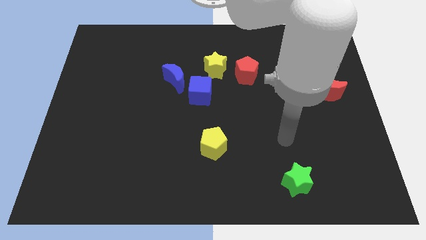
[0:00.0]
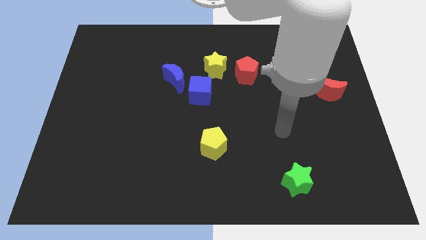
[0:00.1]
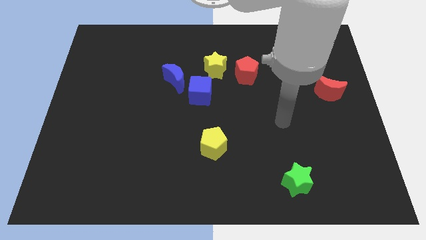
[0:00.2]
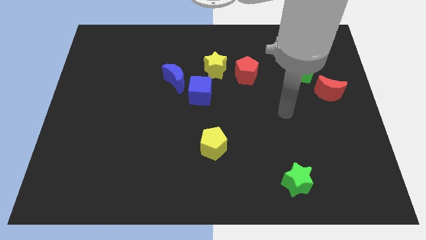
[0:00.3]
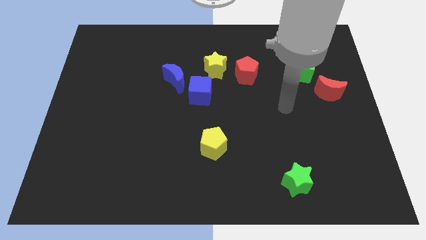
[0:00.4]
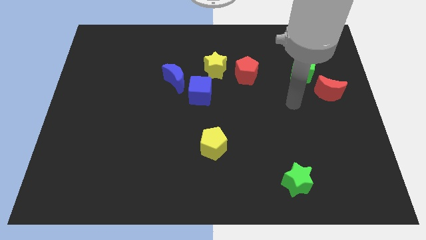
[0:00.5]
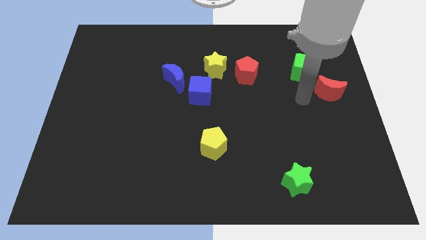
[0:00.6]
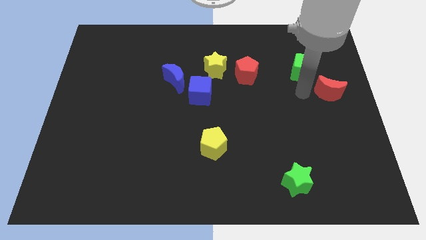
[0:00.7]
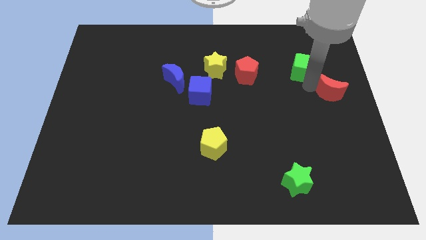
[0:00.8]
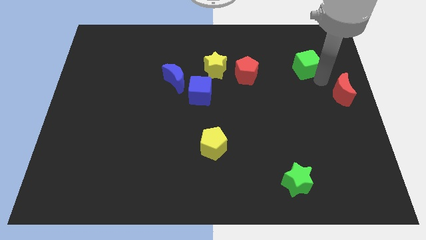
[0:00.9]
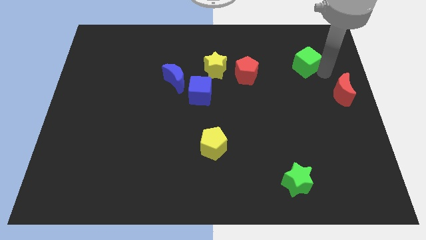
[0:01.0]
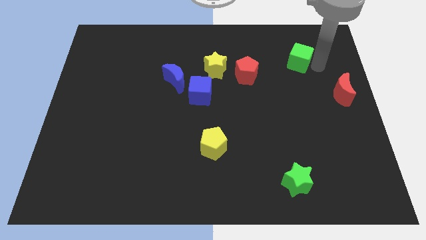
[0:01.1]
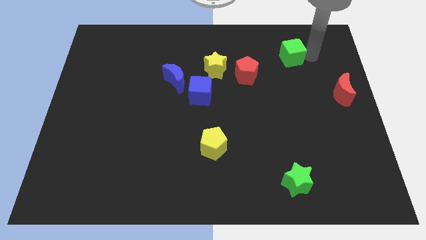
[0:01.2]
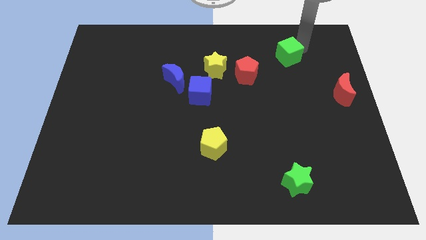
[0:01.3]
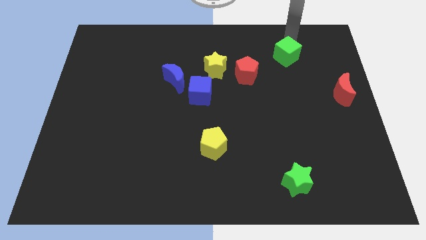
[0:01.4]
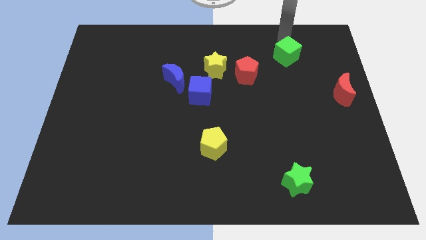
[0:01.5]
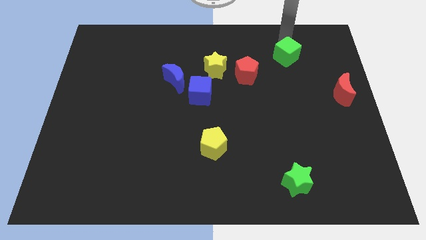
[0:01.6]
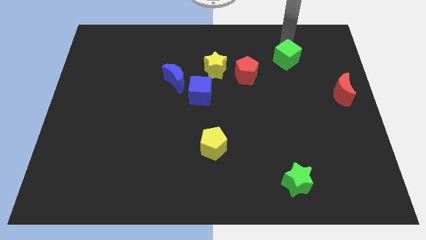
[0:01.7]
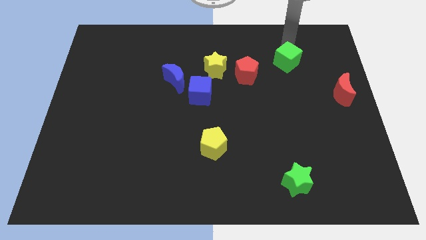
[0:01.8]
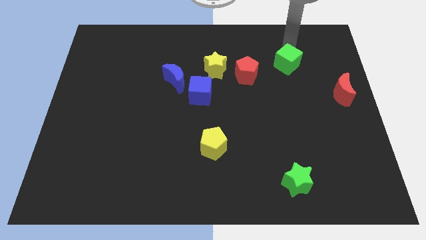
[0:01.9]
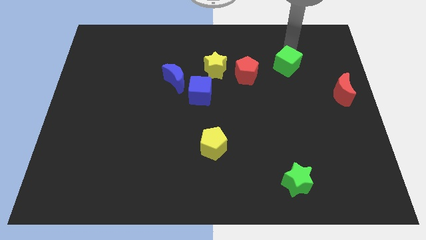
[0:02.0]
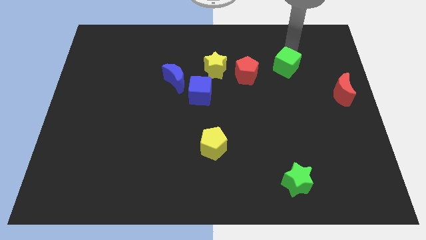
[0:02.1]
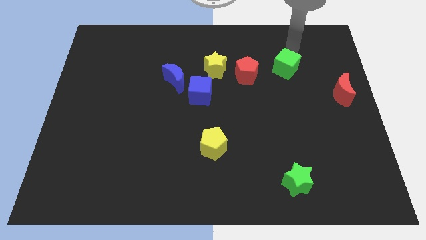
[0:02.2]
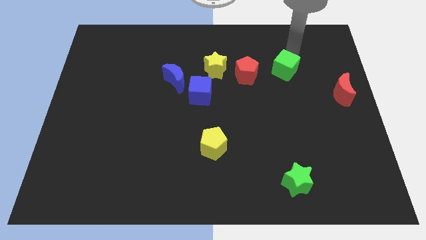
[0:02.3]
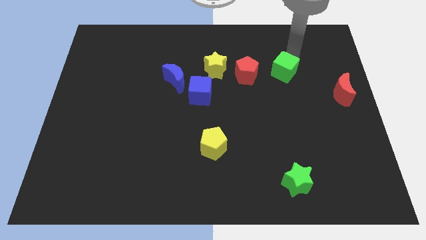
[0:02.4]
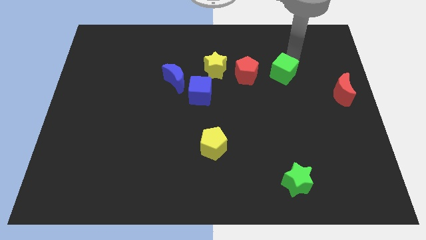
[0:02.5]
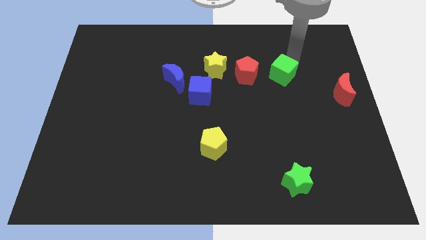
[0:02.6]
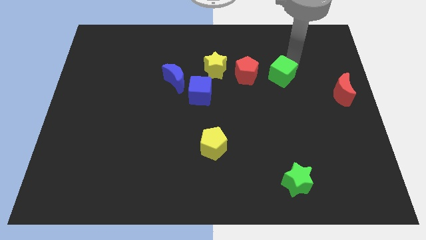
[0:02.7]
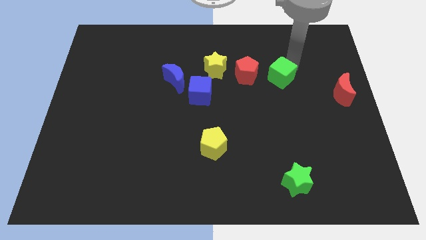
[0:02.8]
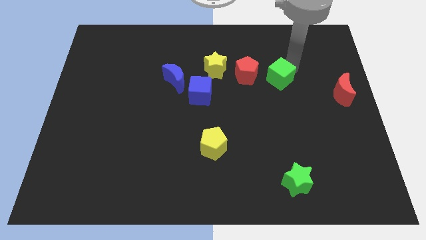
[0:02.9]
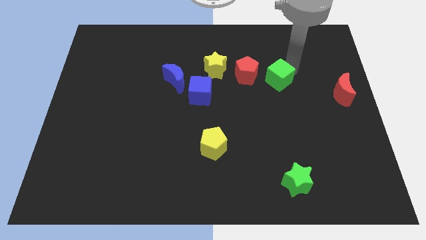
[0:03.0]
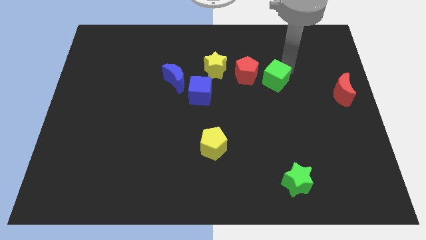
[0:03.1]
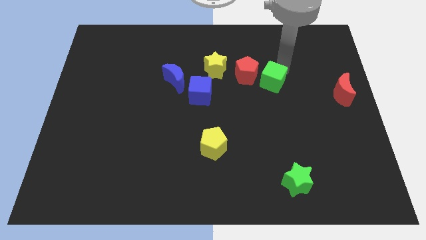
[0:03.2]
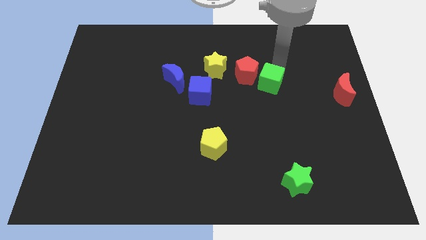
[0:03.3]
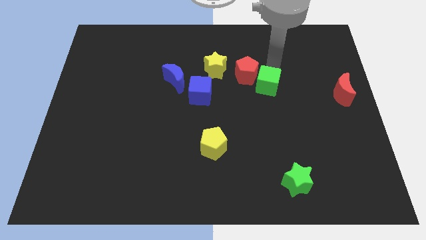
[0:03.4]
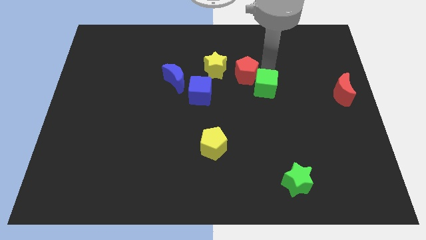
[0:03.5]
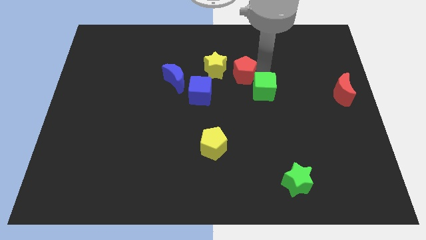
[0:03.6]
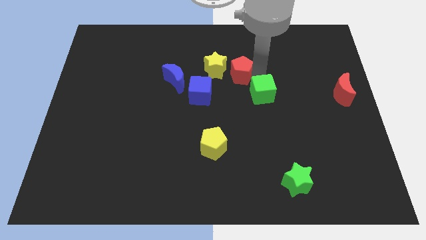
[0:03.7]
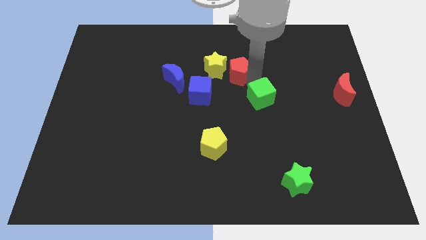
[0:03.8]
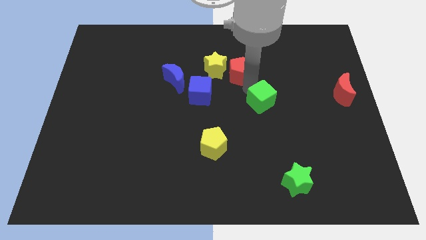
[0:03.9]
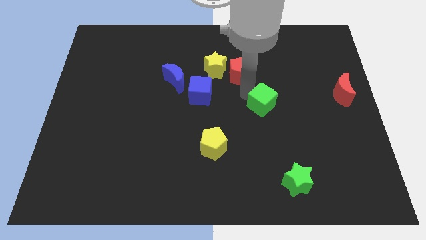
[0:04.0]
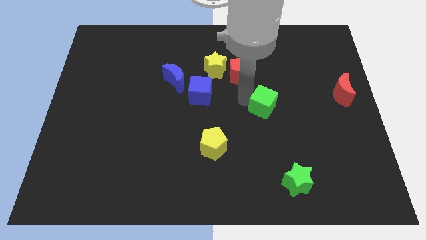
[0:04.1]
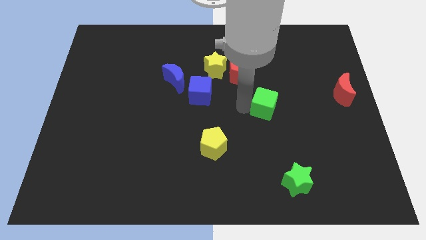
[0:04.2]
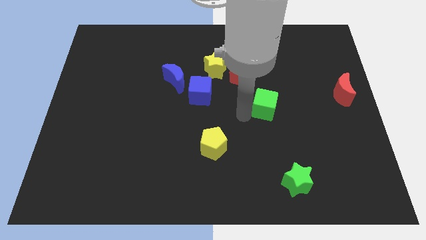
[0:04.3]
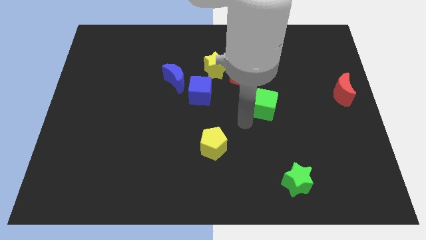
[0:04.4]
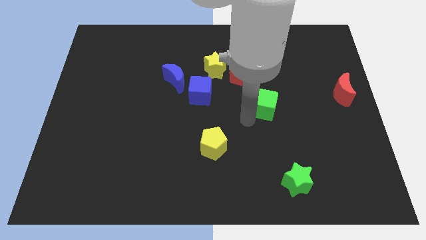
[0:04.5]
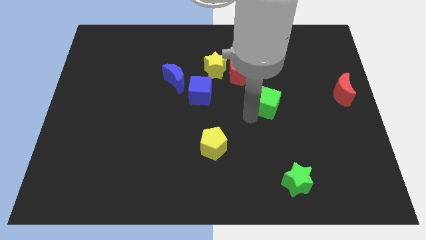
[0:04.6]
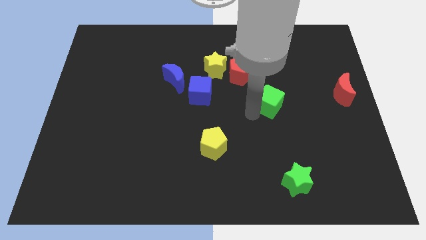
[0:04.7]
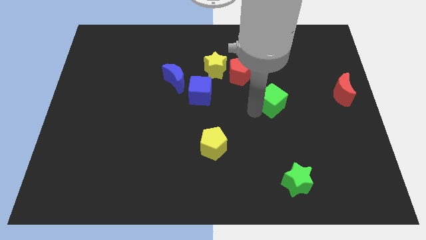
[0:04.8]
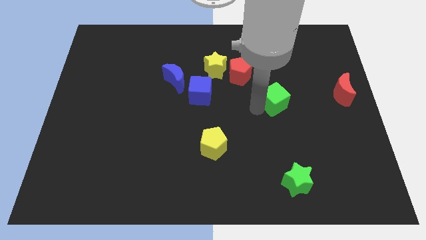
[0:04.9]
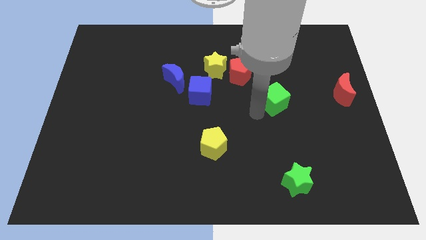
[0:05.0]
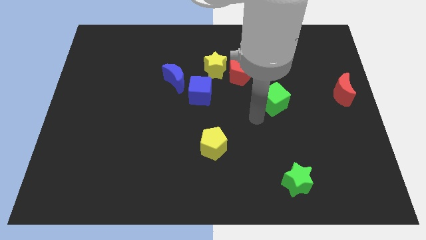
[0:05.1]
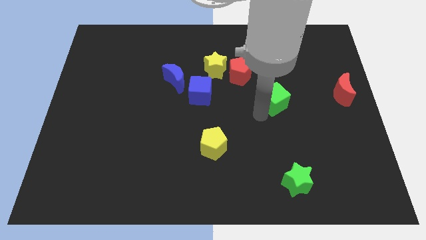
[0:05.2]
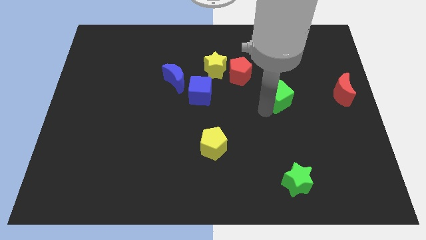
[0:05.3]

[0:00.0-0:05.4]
slide the green cube just left of the red moon

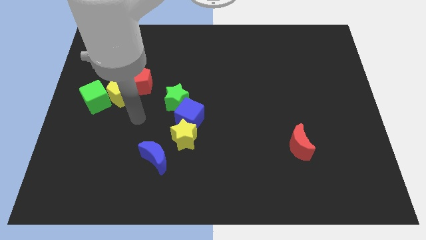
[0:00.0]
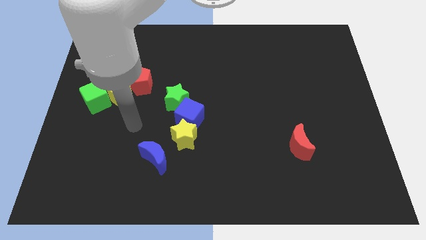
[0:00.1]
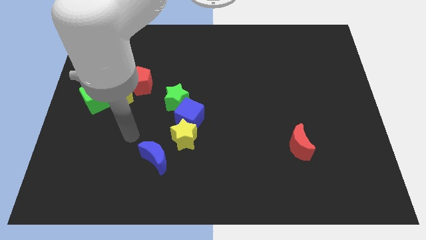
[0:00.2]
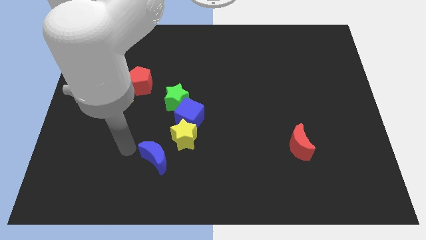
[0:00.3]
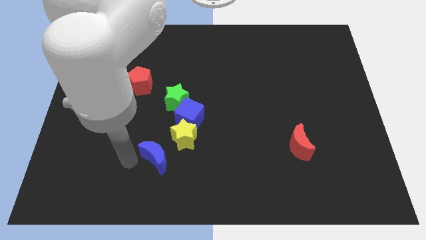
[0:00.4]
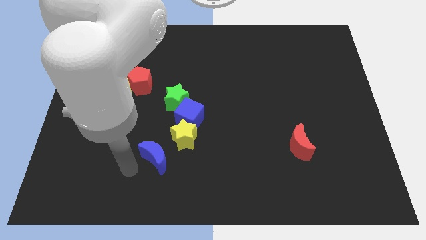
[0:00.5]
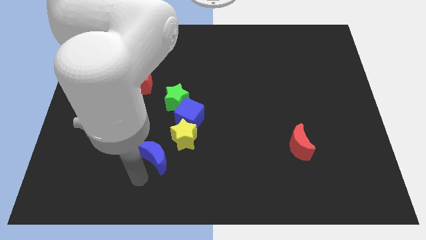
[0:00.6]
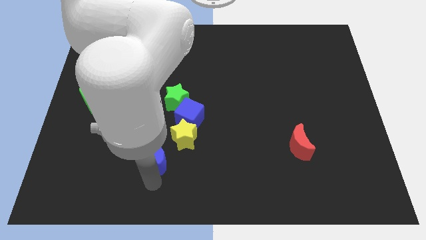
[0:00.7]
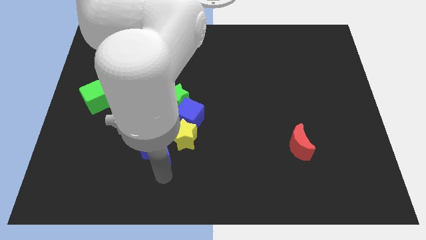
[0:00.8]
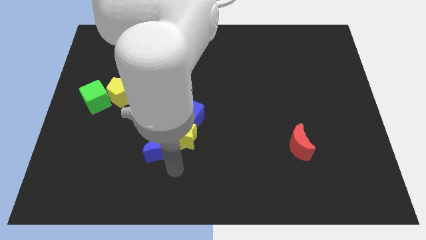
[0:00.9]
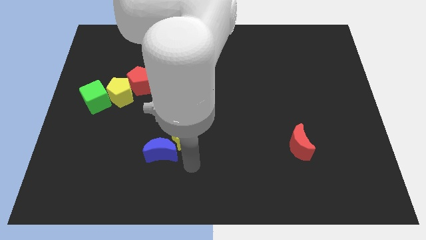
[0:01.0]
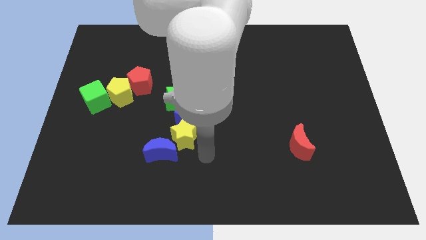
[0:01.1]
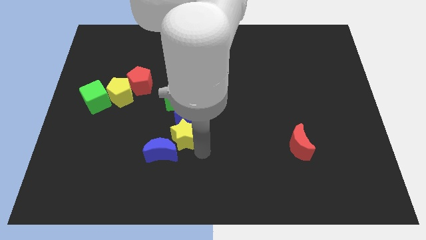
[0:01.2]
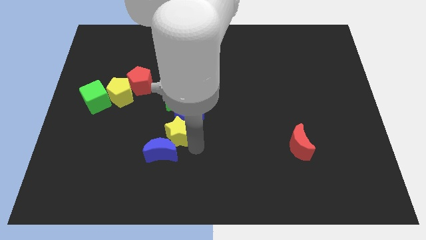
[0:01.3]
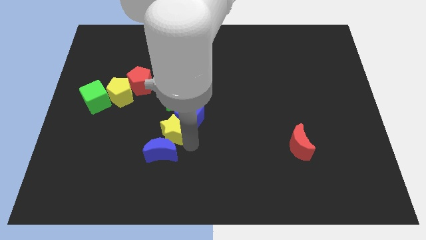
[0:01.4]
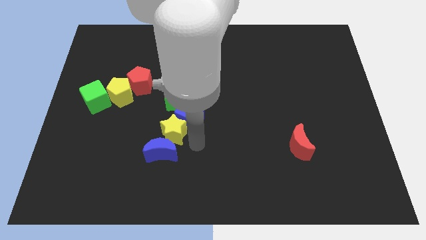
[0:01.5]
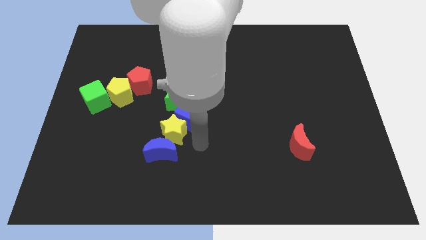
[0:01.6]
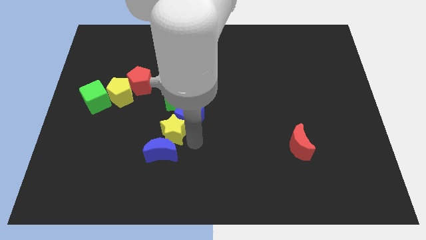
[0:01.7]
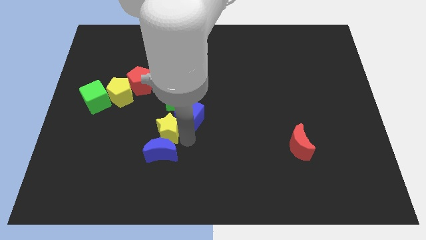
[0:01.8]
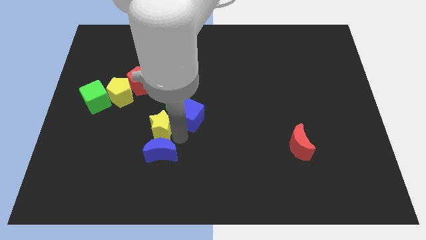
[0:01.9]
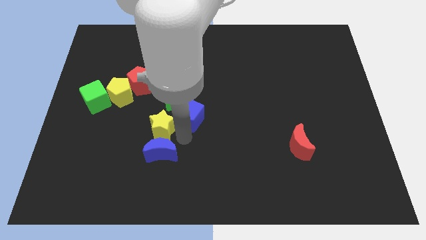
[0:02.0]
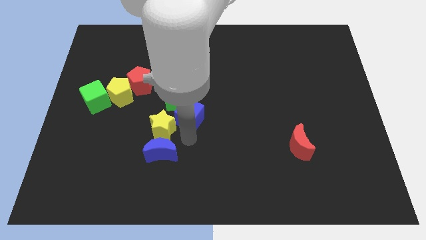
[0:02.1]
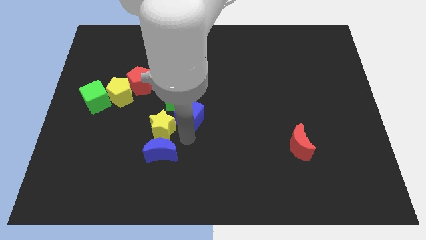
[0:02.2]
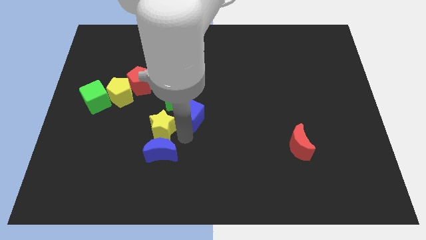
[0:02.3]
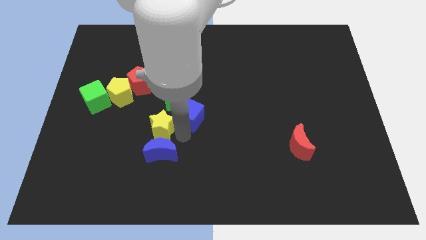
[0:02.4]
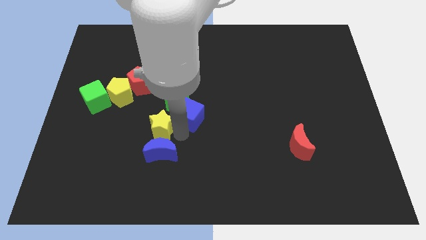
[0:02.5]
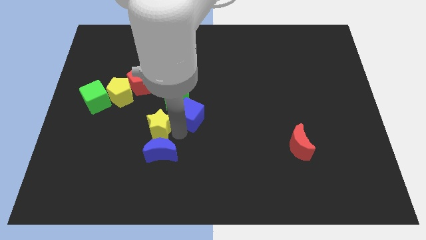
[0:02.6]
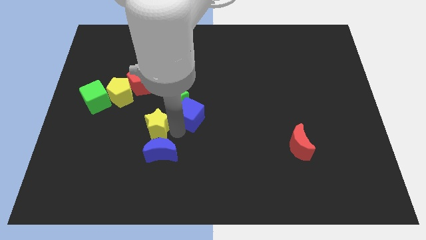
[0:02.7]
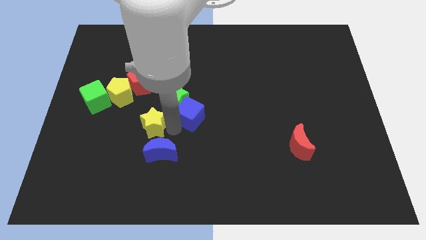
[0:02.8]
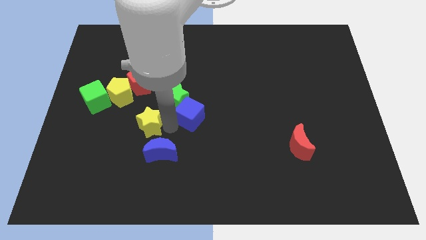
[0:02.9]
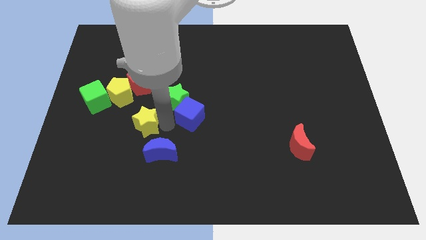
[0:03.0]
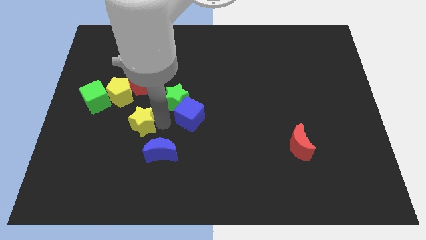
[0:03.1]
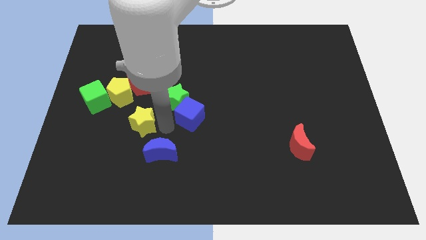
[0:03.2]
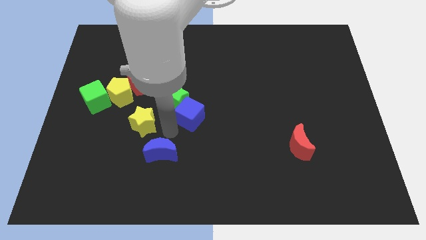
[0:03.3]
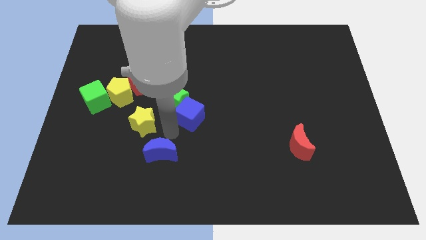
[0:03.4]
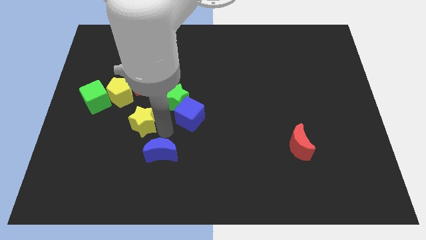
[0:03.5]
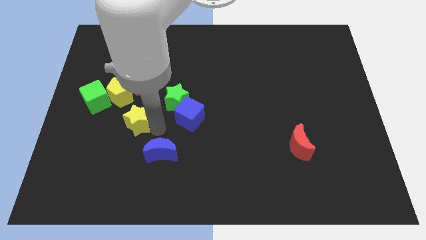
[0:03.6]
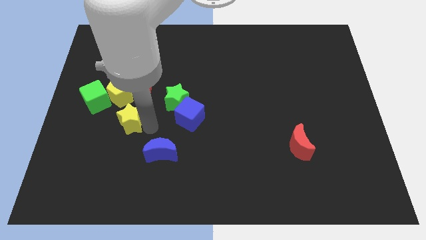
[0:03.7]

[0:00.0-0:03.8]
slide the yellow star diagonally down and to the right of the green cube
